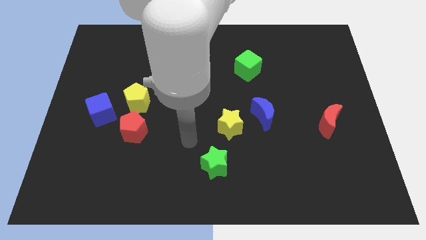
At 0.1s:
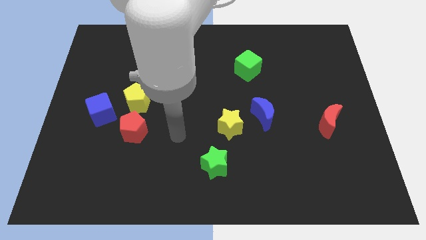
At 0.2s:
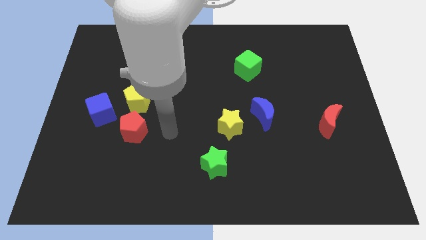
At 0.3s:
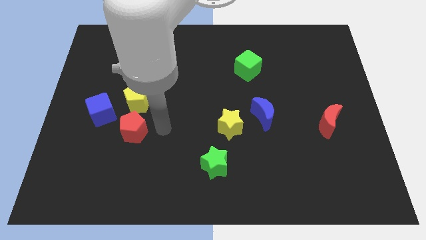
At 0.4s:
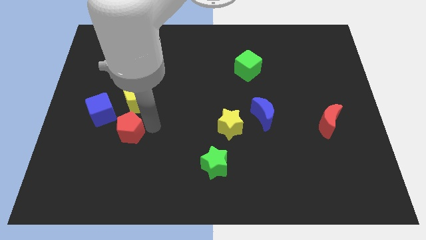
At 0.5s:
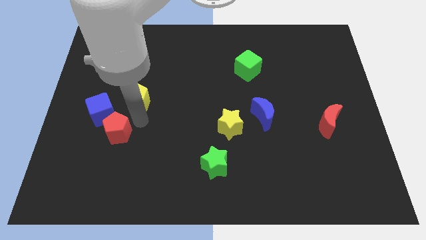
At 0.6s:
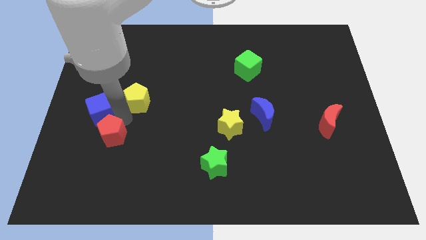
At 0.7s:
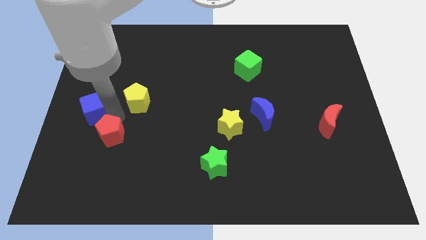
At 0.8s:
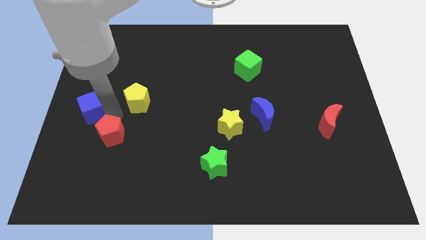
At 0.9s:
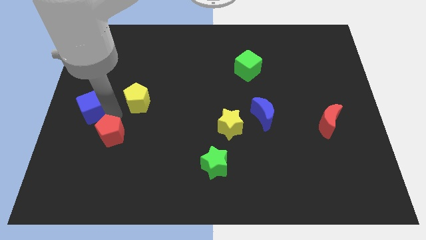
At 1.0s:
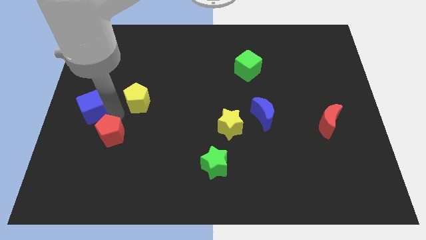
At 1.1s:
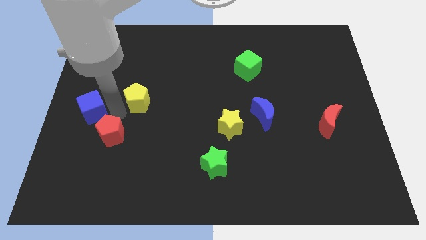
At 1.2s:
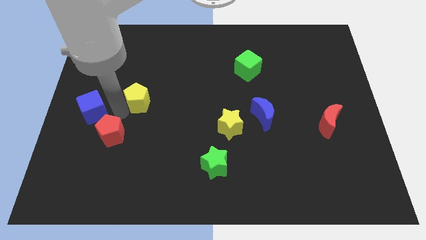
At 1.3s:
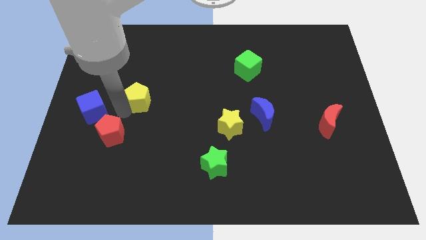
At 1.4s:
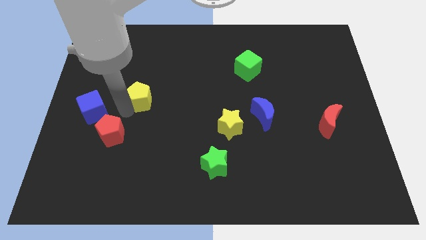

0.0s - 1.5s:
move the yellow pentagon away from the red pentagon and blue cube

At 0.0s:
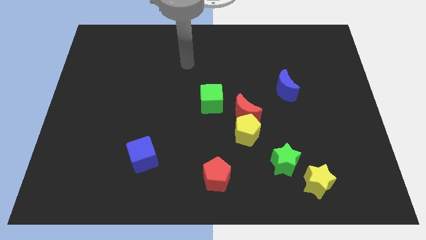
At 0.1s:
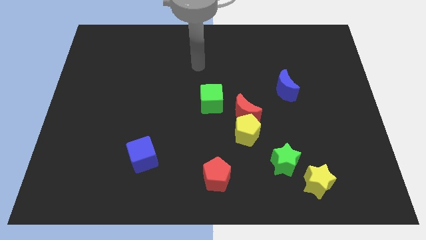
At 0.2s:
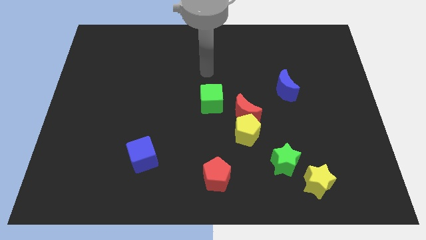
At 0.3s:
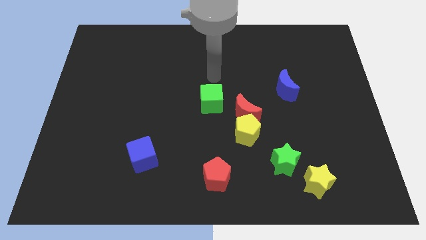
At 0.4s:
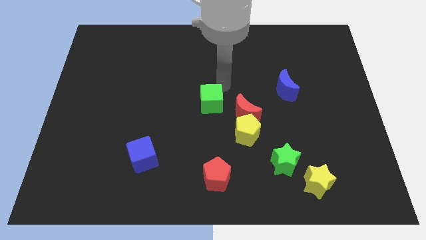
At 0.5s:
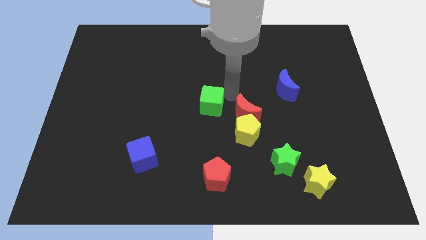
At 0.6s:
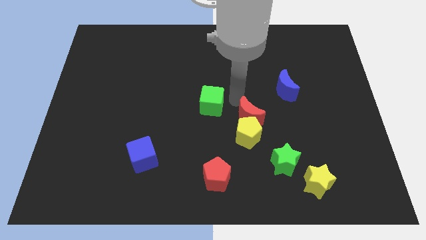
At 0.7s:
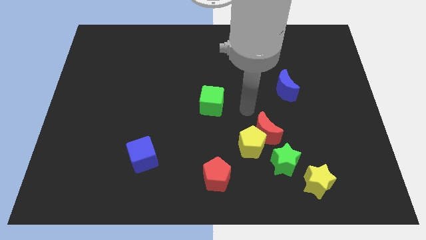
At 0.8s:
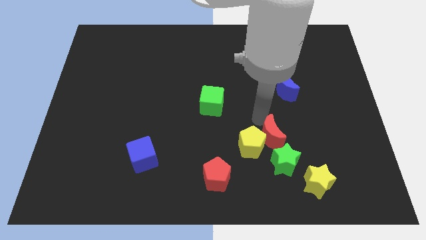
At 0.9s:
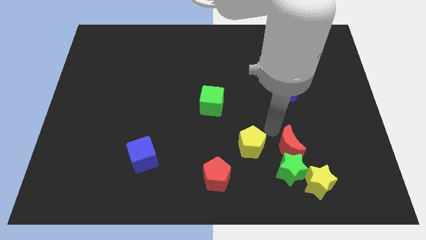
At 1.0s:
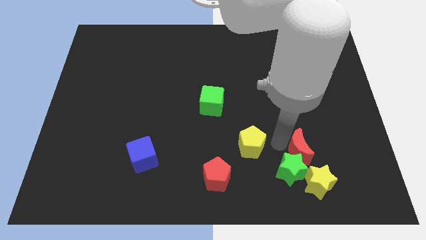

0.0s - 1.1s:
separate the yellow pentagon from the red moon

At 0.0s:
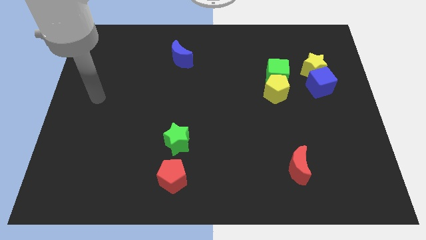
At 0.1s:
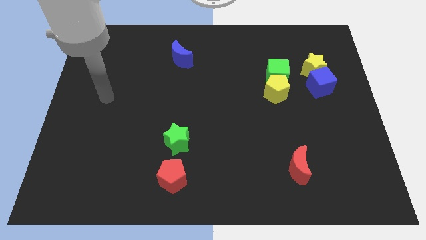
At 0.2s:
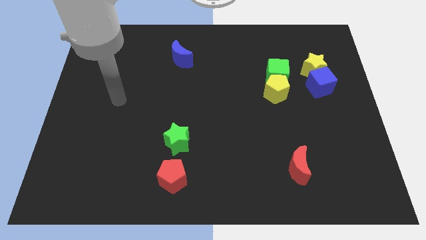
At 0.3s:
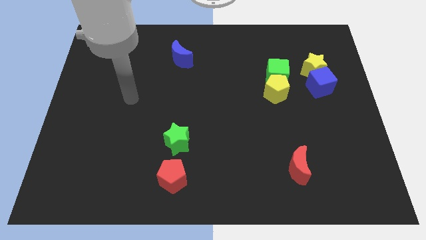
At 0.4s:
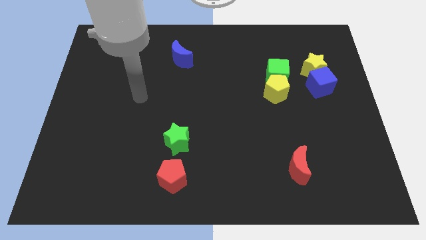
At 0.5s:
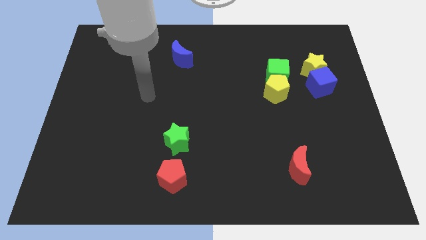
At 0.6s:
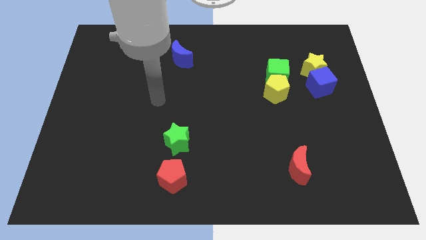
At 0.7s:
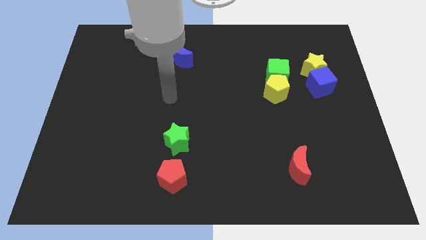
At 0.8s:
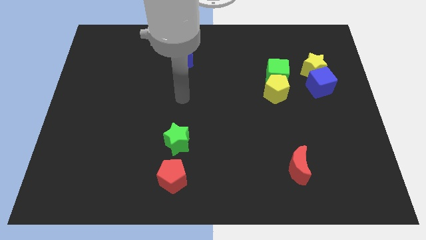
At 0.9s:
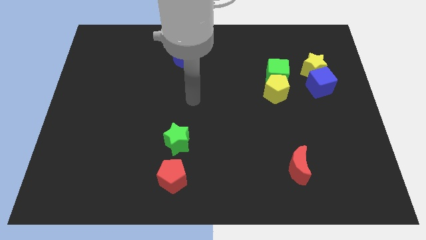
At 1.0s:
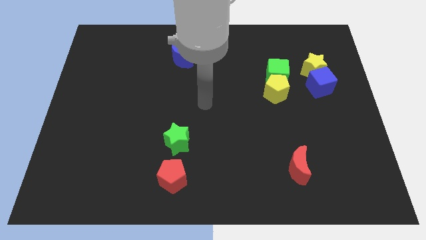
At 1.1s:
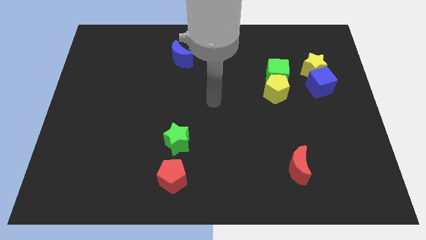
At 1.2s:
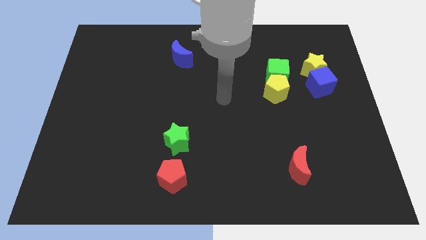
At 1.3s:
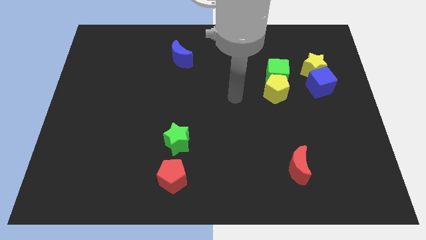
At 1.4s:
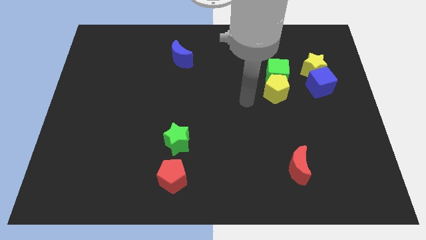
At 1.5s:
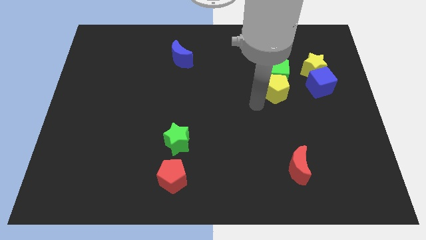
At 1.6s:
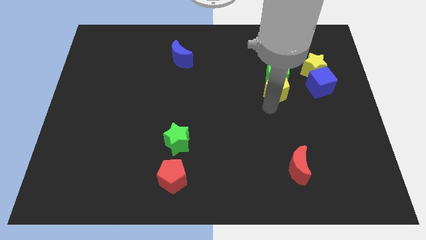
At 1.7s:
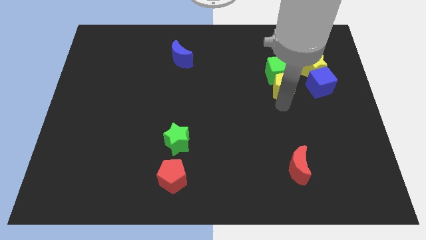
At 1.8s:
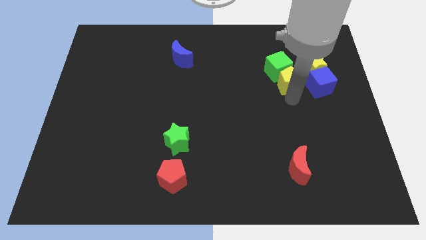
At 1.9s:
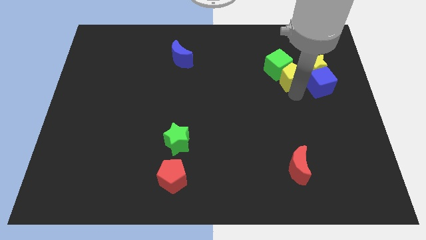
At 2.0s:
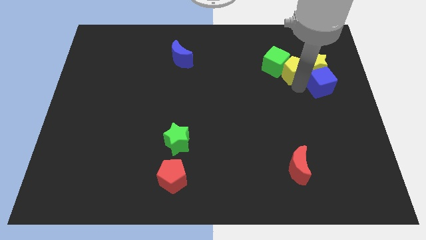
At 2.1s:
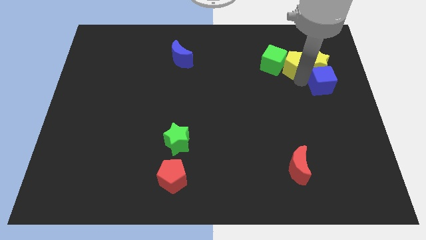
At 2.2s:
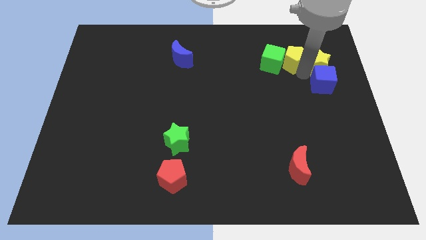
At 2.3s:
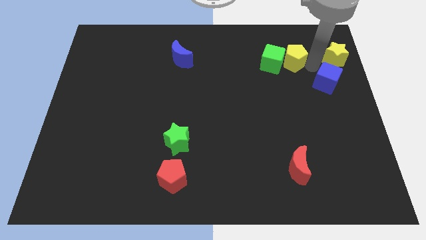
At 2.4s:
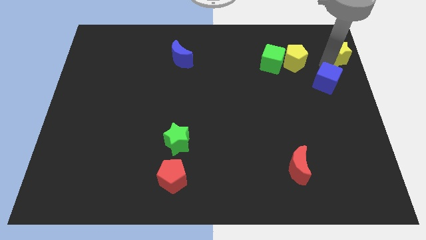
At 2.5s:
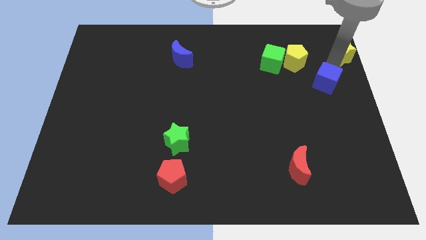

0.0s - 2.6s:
move the blue cube away from the yellow star

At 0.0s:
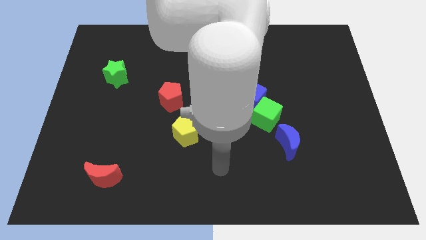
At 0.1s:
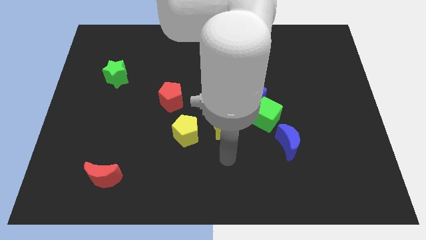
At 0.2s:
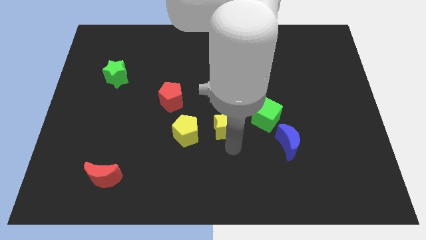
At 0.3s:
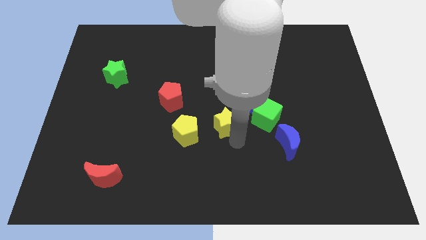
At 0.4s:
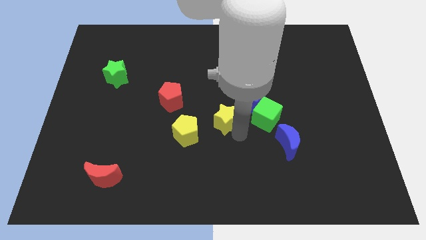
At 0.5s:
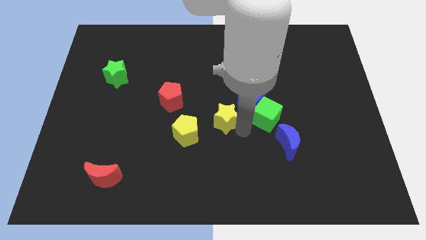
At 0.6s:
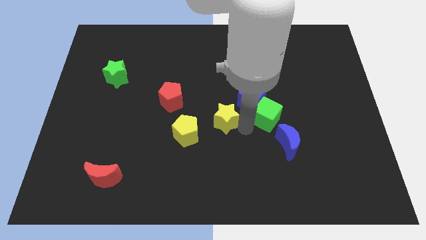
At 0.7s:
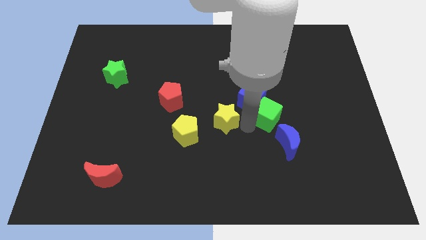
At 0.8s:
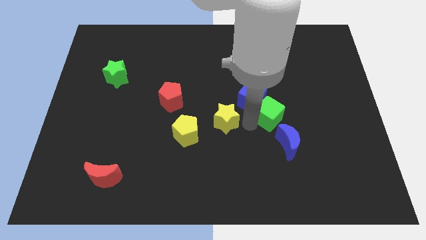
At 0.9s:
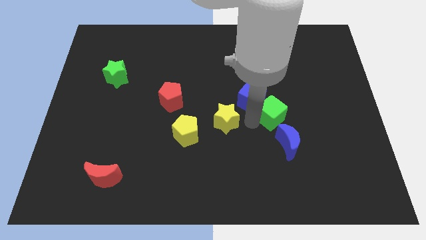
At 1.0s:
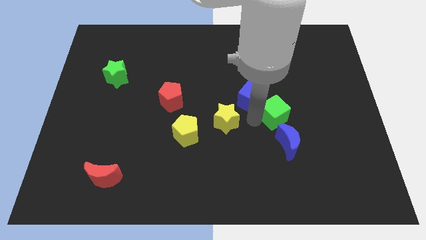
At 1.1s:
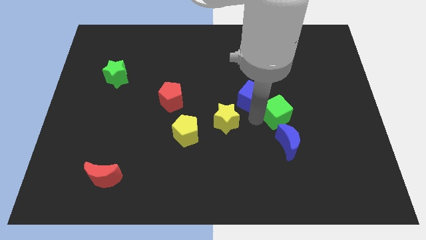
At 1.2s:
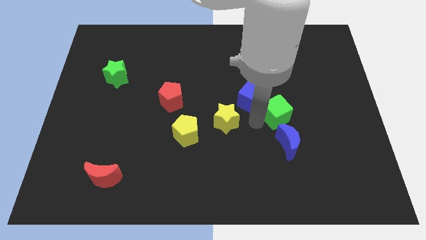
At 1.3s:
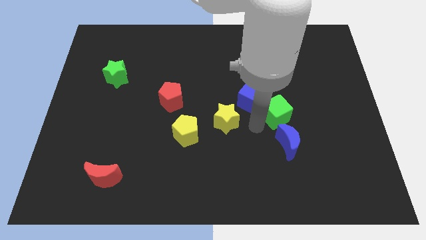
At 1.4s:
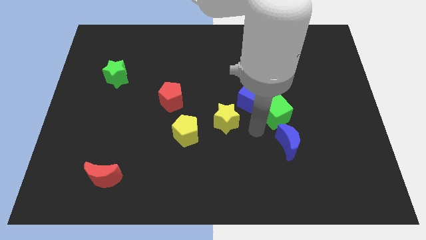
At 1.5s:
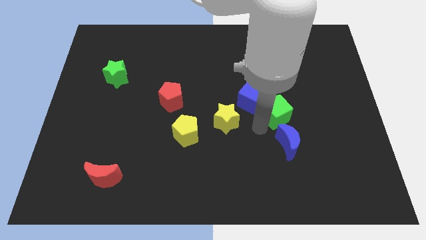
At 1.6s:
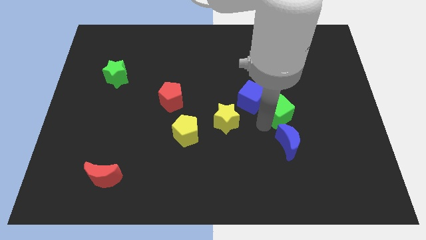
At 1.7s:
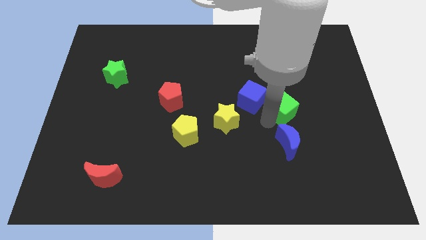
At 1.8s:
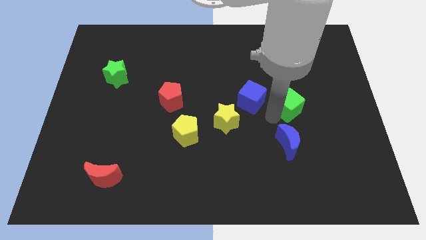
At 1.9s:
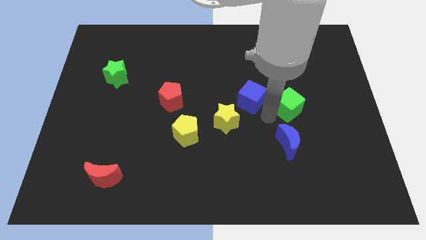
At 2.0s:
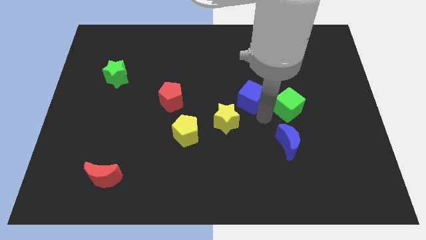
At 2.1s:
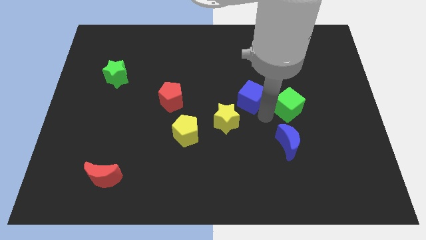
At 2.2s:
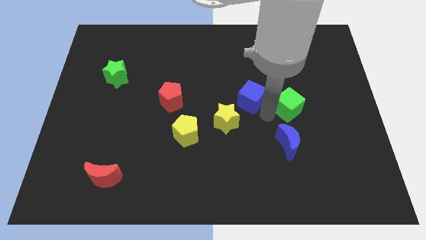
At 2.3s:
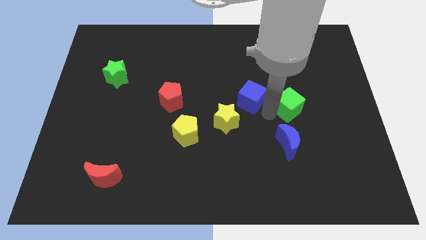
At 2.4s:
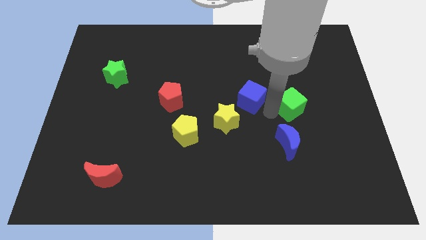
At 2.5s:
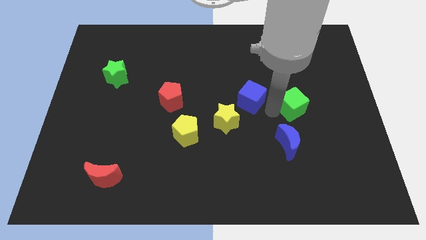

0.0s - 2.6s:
pull the green cube apart from the group of blocks

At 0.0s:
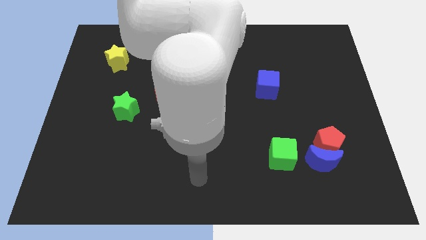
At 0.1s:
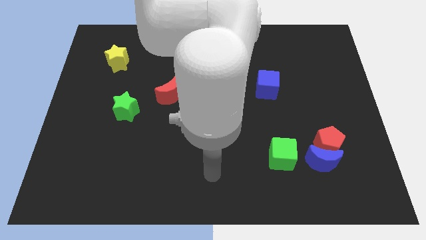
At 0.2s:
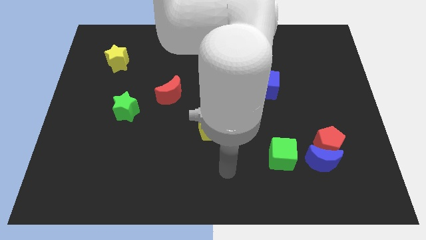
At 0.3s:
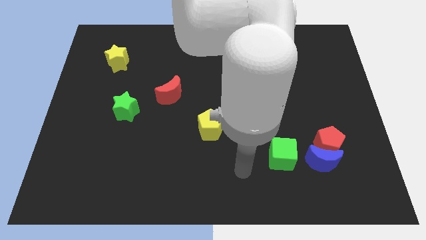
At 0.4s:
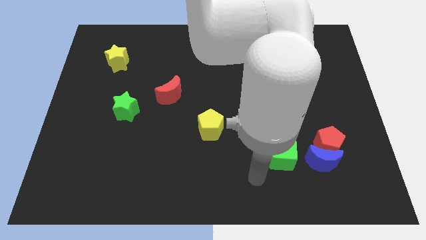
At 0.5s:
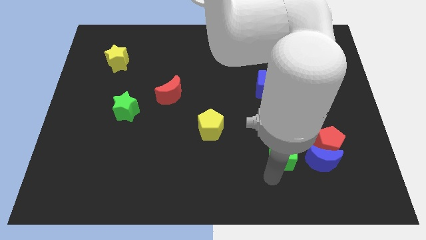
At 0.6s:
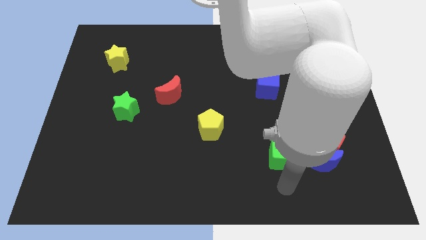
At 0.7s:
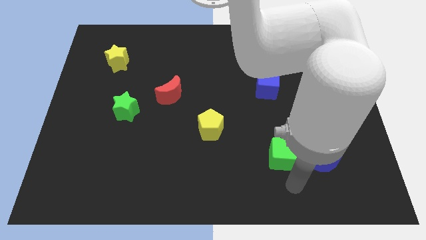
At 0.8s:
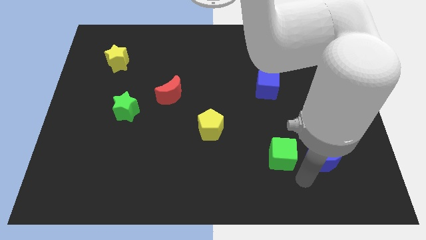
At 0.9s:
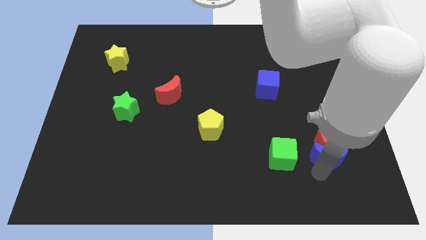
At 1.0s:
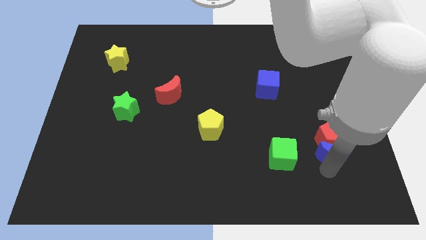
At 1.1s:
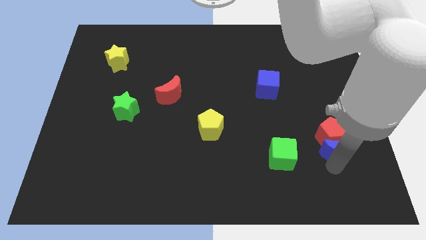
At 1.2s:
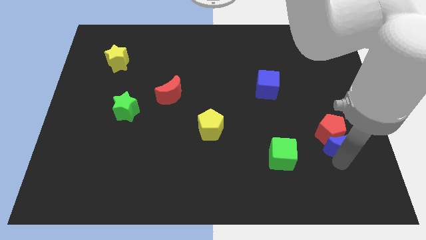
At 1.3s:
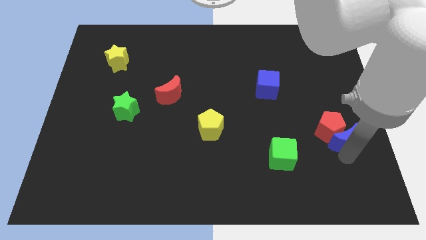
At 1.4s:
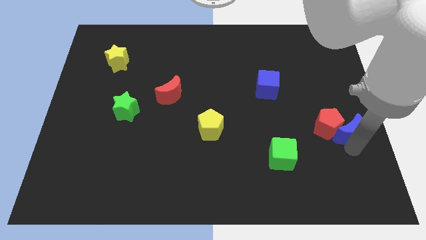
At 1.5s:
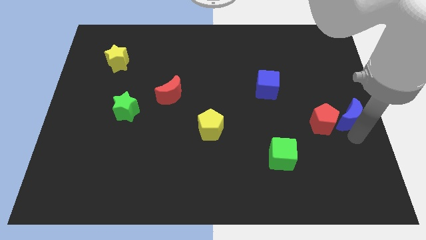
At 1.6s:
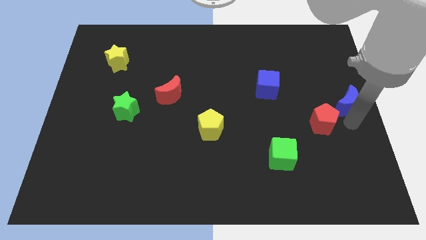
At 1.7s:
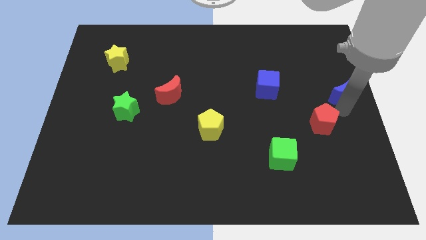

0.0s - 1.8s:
move the red pentagon away from the blue moon
